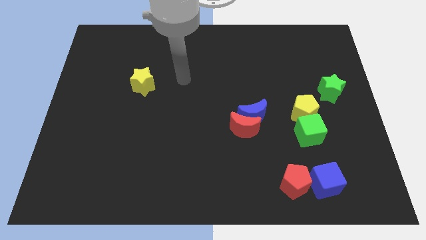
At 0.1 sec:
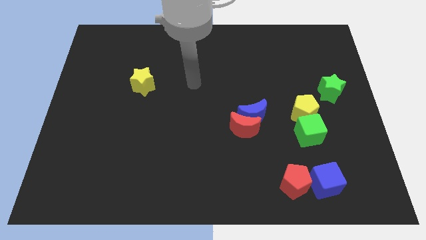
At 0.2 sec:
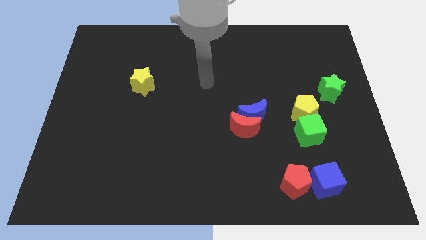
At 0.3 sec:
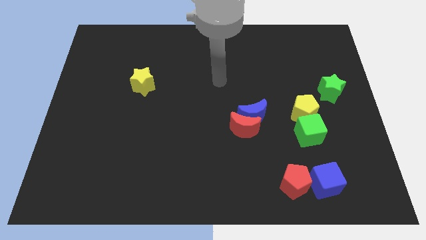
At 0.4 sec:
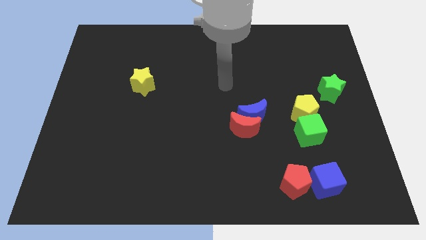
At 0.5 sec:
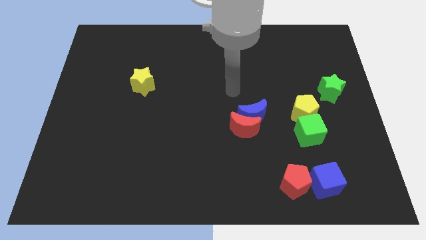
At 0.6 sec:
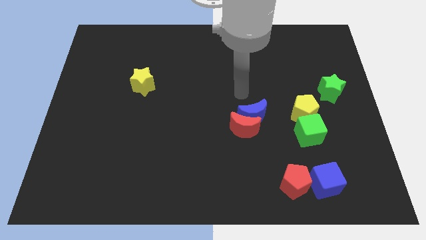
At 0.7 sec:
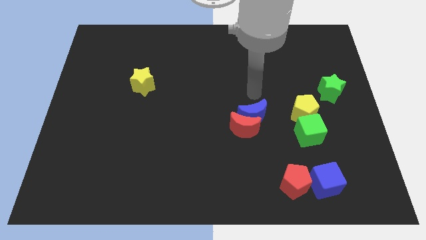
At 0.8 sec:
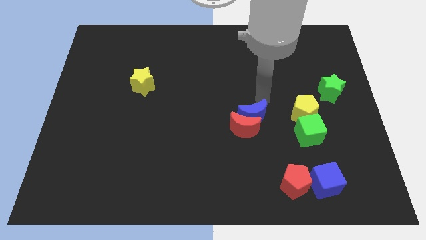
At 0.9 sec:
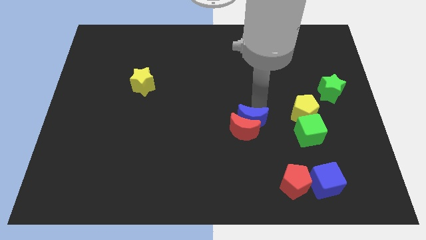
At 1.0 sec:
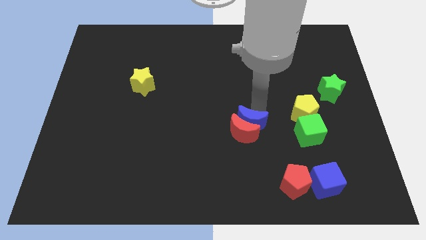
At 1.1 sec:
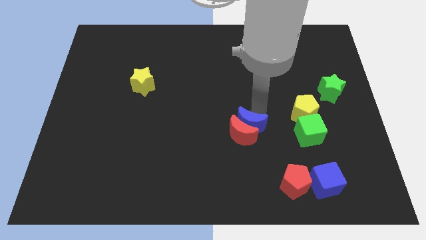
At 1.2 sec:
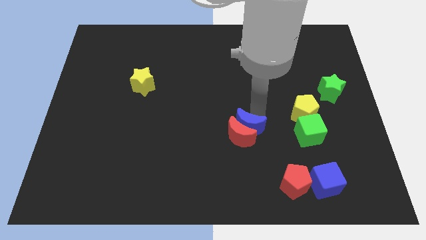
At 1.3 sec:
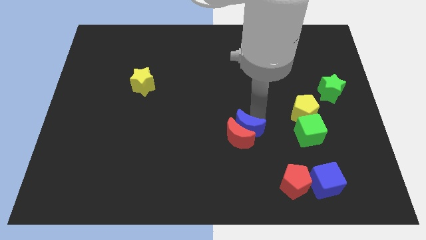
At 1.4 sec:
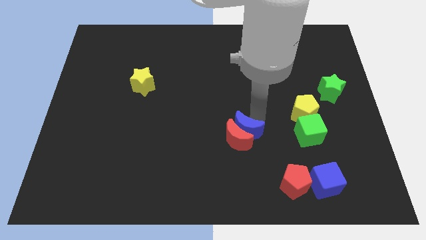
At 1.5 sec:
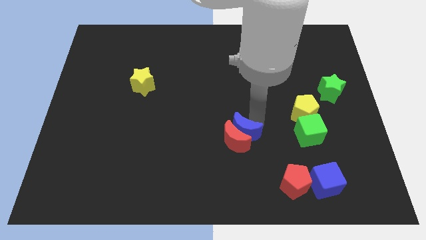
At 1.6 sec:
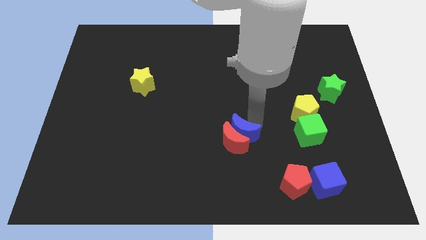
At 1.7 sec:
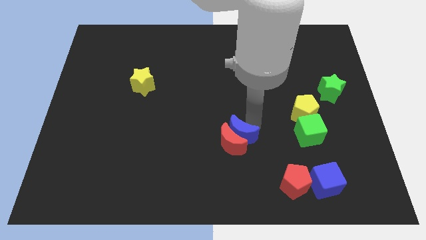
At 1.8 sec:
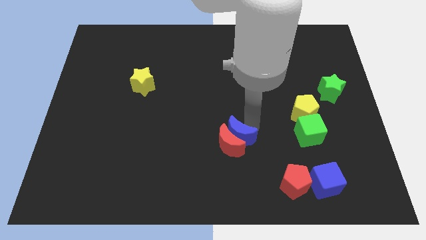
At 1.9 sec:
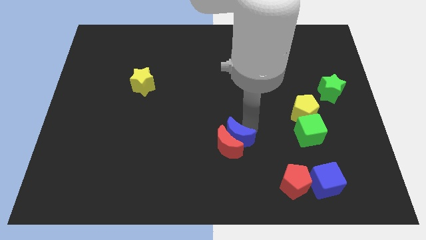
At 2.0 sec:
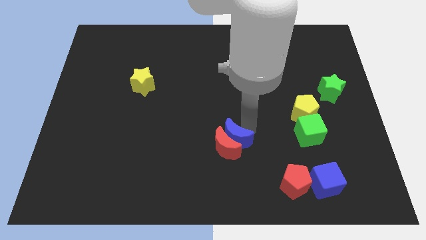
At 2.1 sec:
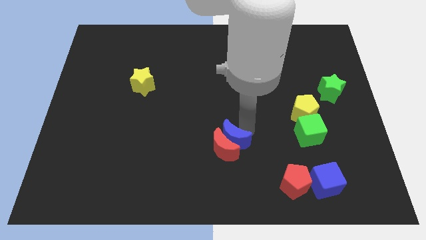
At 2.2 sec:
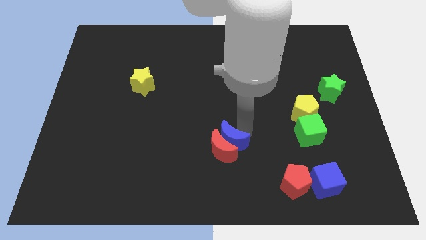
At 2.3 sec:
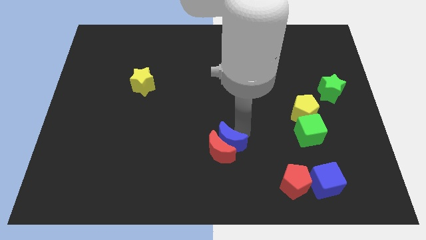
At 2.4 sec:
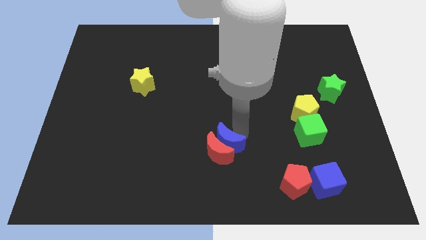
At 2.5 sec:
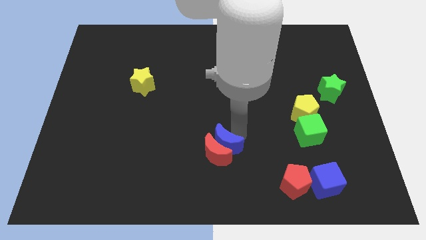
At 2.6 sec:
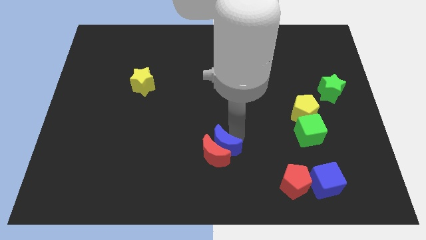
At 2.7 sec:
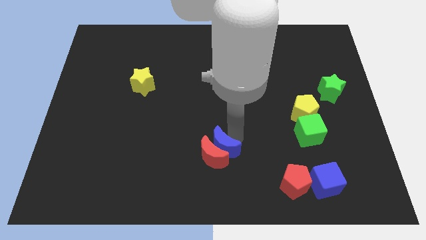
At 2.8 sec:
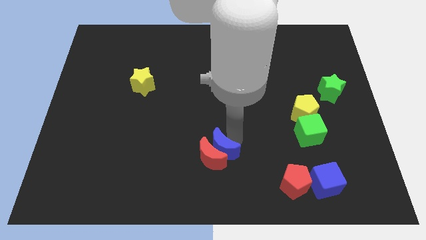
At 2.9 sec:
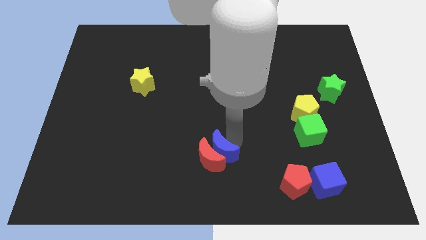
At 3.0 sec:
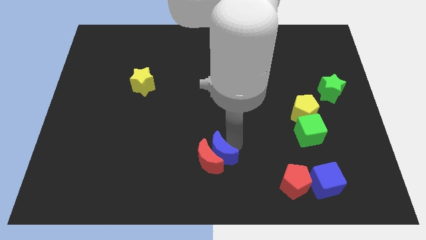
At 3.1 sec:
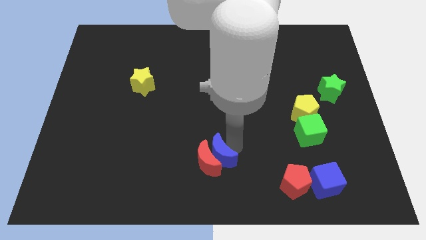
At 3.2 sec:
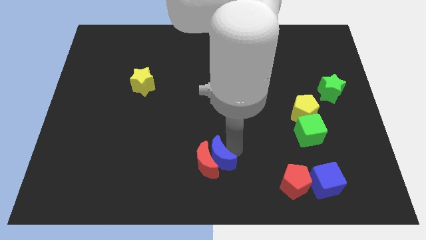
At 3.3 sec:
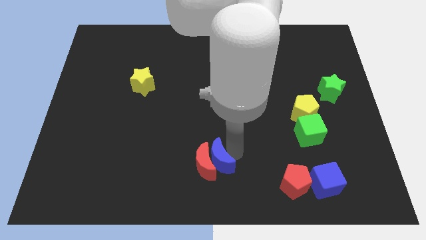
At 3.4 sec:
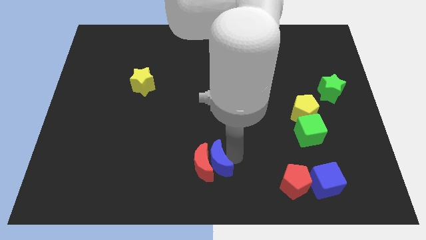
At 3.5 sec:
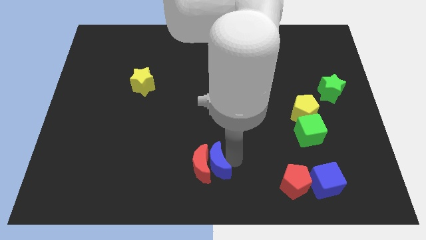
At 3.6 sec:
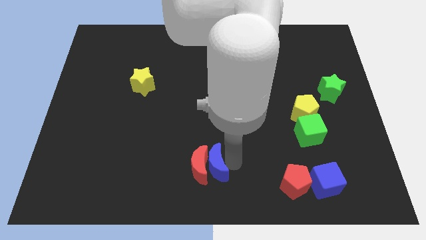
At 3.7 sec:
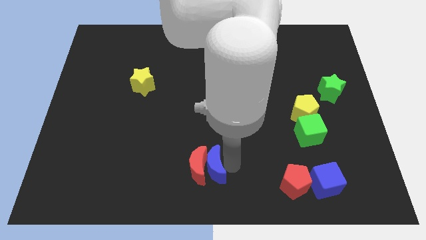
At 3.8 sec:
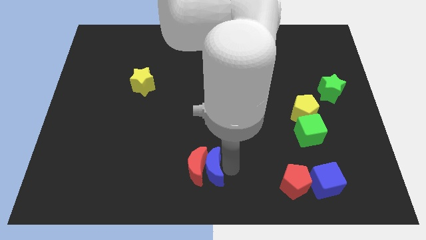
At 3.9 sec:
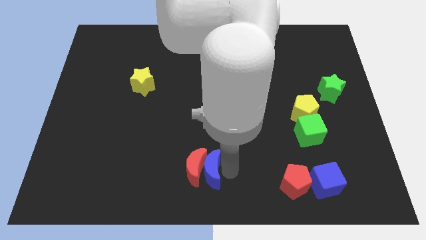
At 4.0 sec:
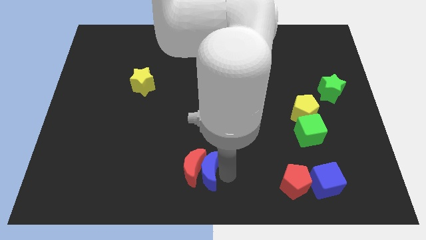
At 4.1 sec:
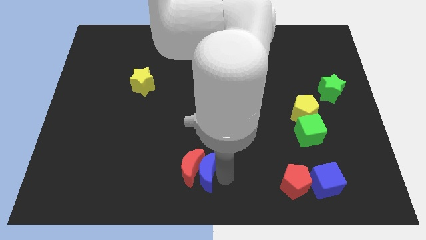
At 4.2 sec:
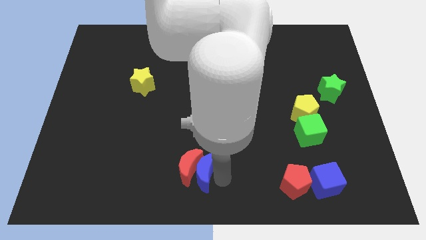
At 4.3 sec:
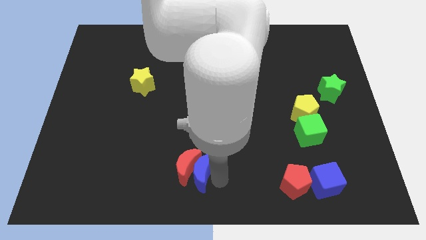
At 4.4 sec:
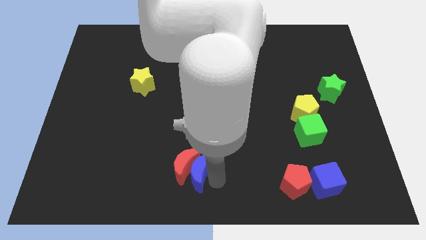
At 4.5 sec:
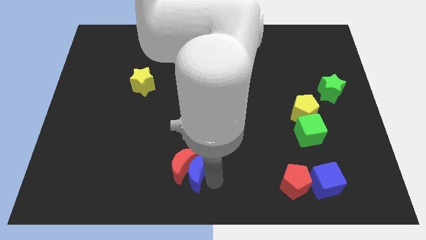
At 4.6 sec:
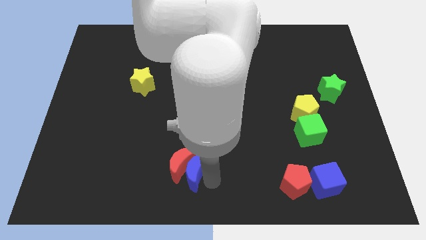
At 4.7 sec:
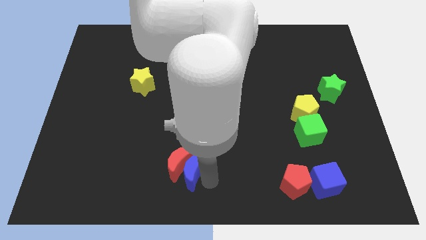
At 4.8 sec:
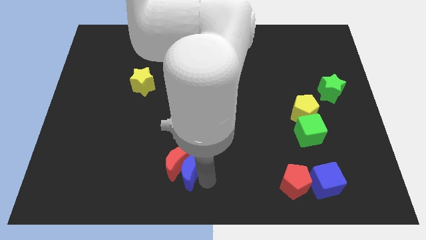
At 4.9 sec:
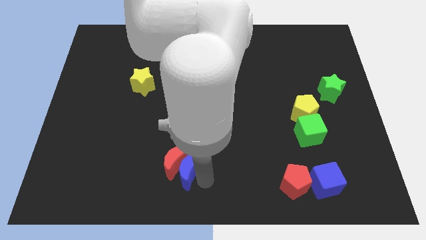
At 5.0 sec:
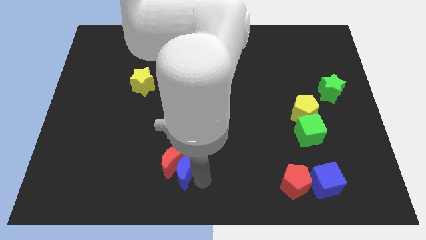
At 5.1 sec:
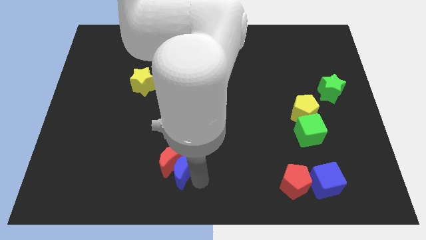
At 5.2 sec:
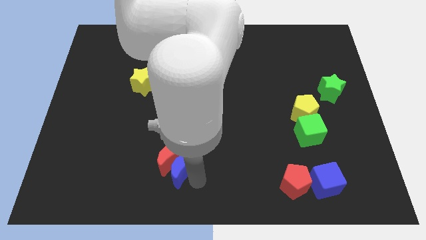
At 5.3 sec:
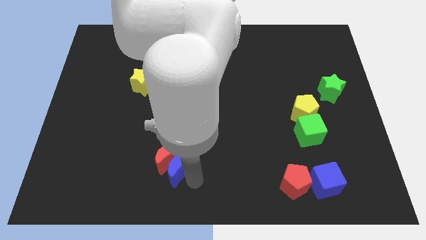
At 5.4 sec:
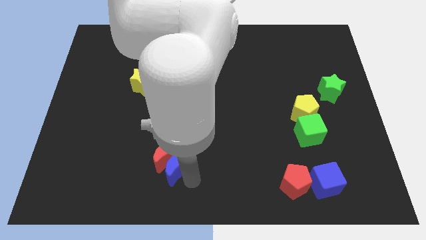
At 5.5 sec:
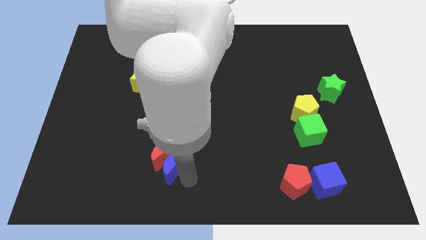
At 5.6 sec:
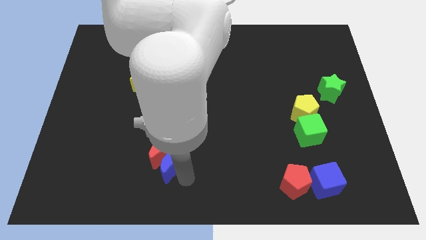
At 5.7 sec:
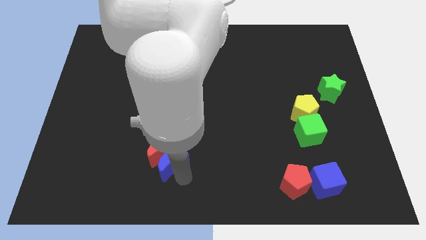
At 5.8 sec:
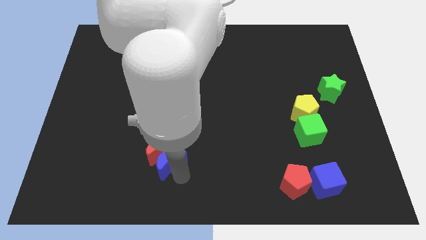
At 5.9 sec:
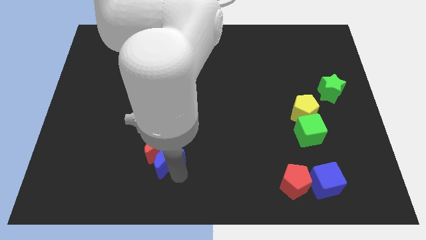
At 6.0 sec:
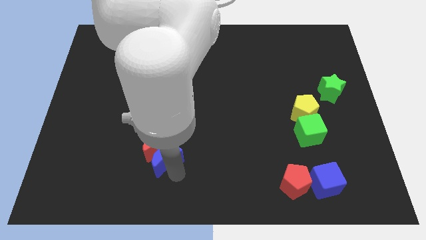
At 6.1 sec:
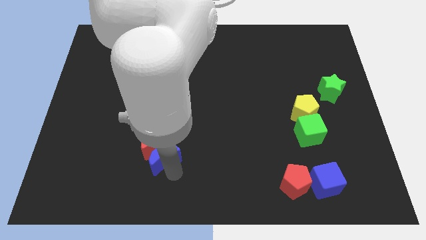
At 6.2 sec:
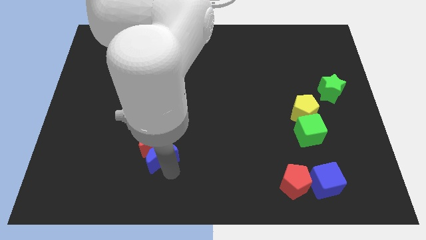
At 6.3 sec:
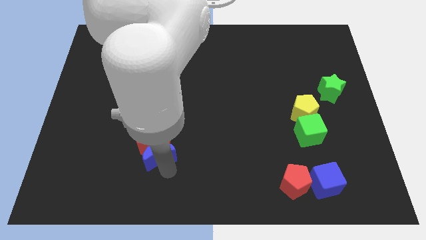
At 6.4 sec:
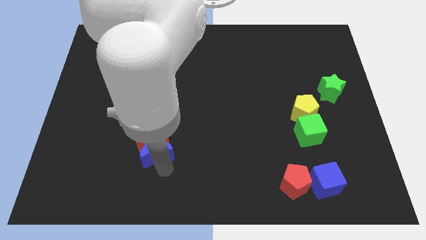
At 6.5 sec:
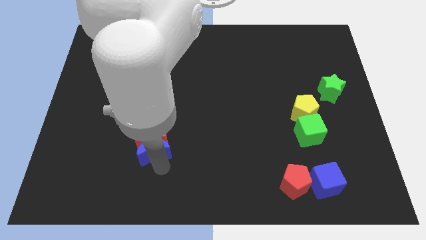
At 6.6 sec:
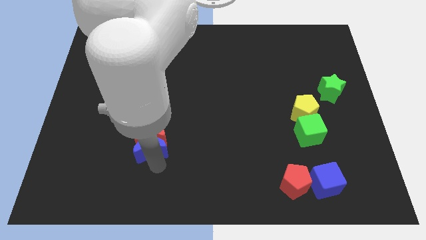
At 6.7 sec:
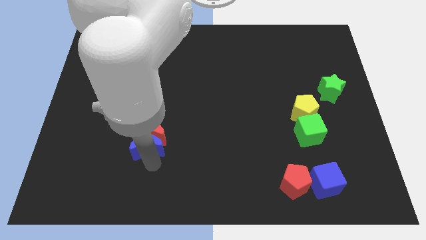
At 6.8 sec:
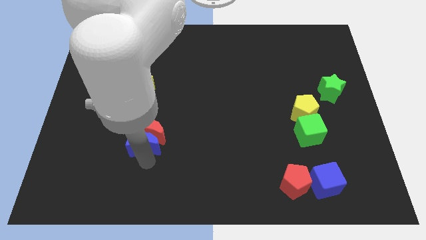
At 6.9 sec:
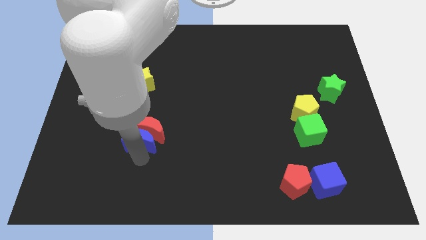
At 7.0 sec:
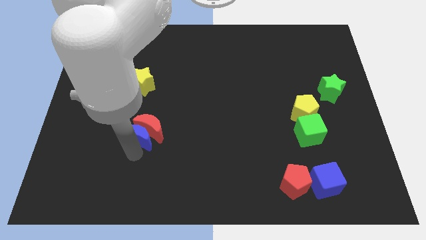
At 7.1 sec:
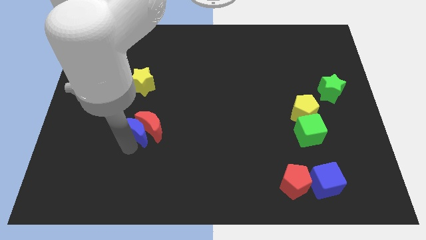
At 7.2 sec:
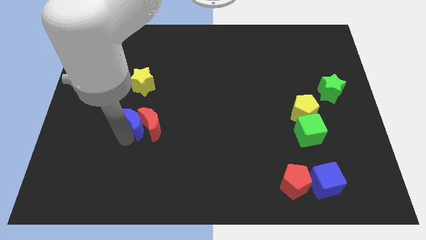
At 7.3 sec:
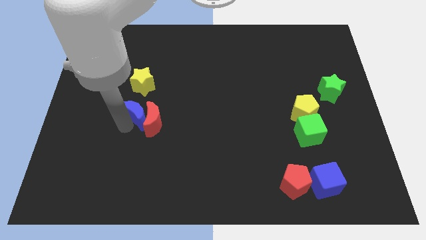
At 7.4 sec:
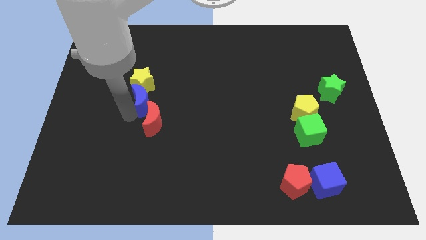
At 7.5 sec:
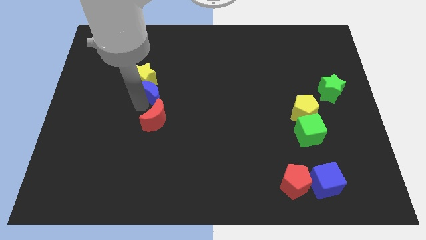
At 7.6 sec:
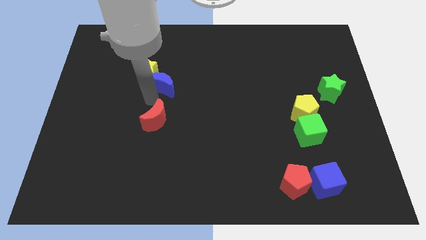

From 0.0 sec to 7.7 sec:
pull the red moon apart from the blue moon

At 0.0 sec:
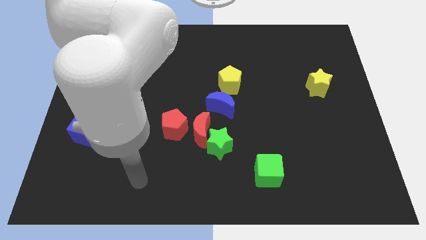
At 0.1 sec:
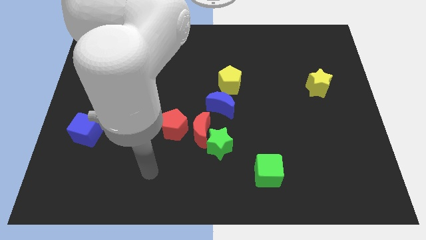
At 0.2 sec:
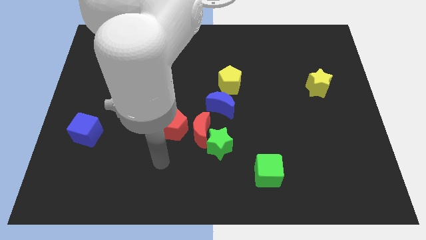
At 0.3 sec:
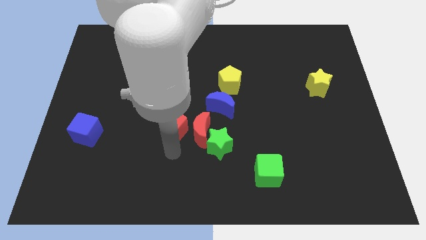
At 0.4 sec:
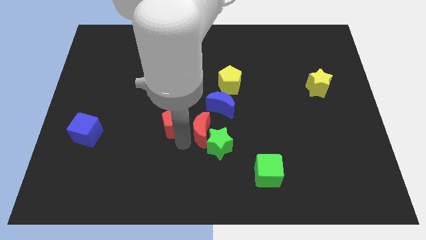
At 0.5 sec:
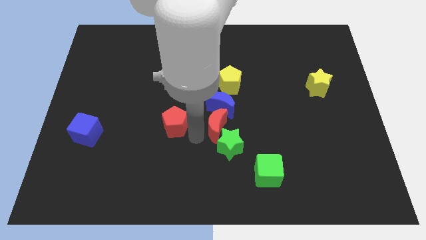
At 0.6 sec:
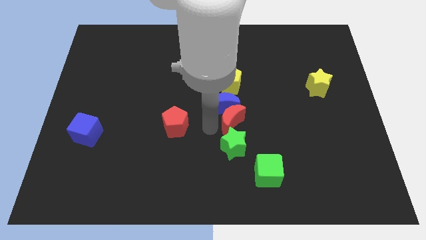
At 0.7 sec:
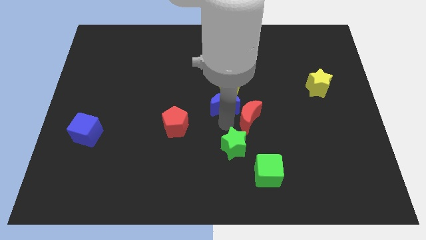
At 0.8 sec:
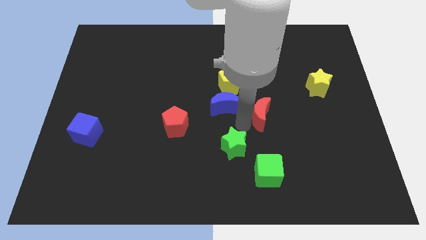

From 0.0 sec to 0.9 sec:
separate the green star from the red moon

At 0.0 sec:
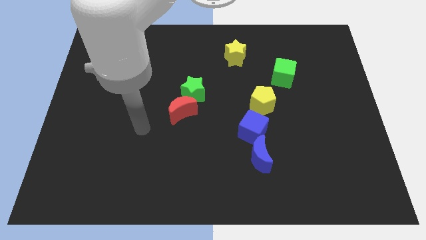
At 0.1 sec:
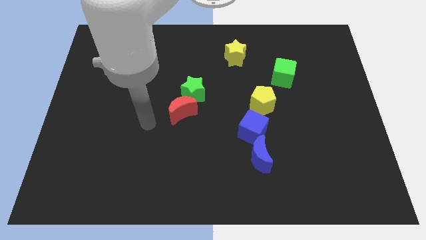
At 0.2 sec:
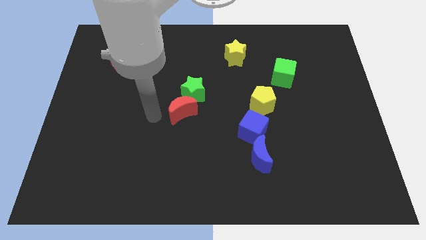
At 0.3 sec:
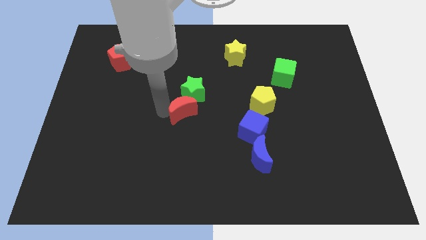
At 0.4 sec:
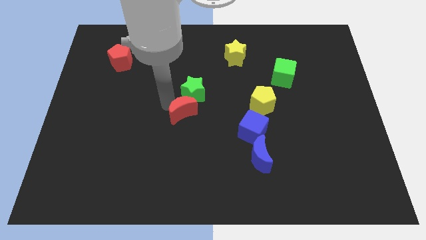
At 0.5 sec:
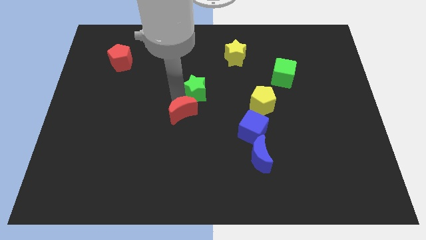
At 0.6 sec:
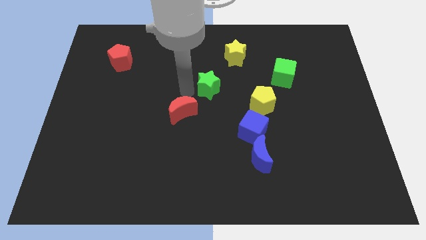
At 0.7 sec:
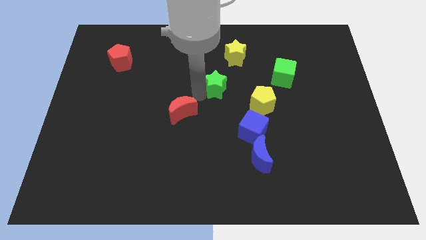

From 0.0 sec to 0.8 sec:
separate the red moon from the green star
